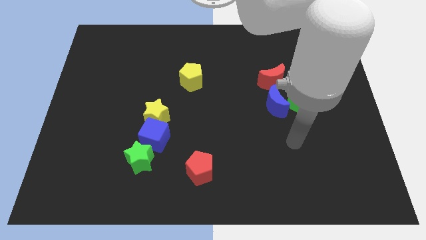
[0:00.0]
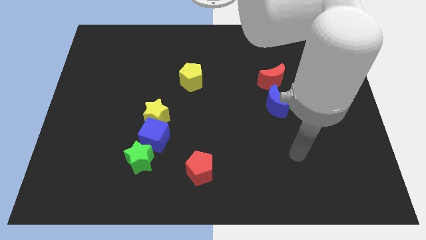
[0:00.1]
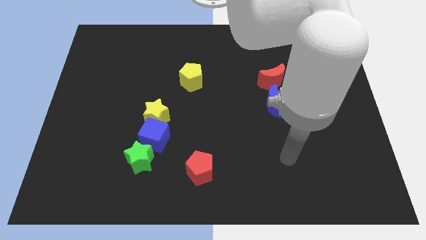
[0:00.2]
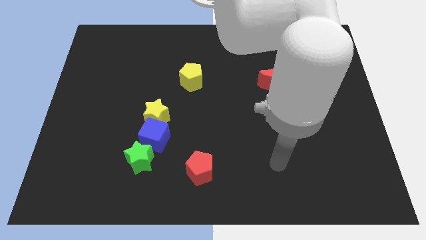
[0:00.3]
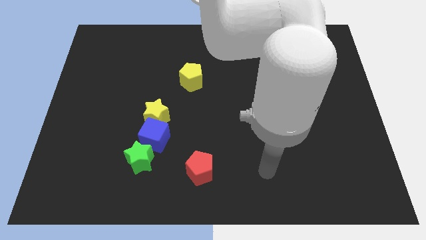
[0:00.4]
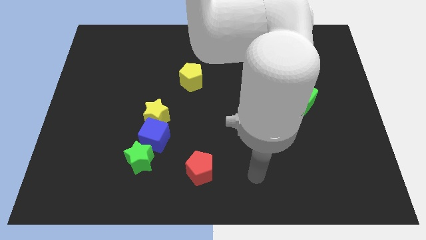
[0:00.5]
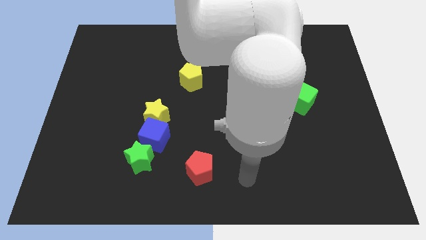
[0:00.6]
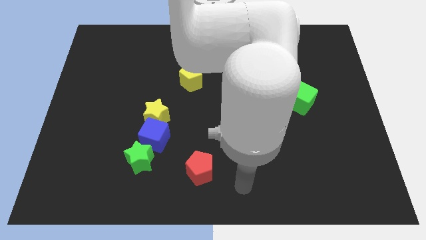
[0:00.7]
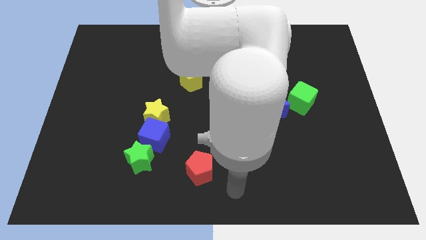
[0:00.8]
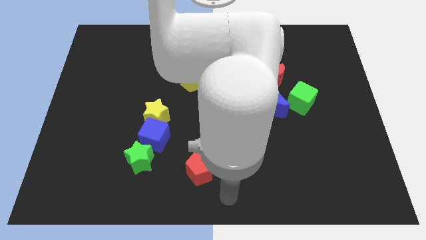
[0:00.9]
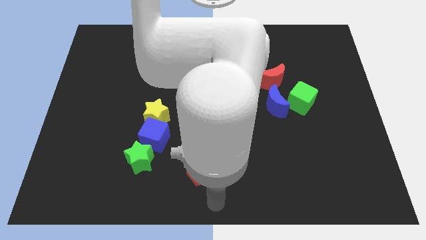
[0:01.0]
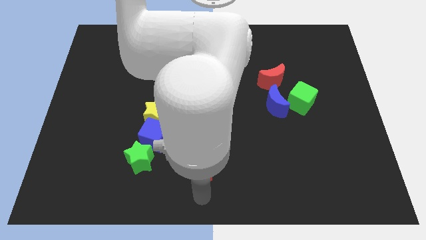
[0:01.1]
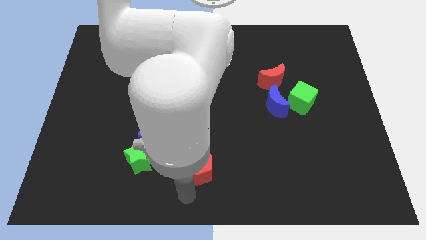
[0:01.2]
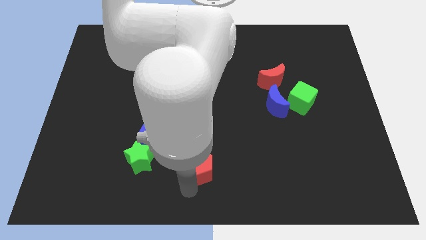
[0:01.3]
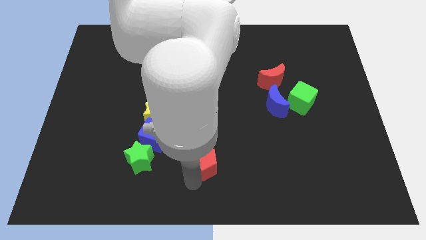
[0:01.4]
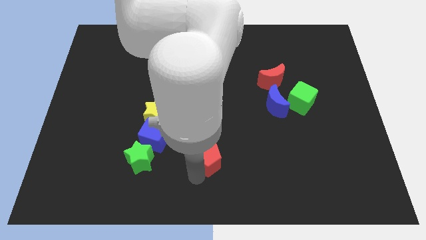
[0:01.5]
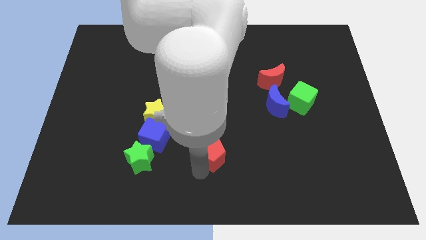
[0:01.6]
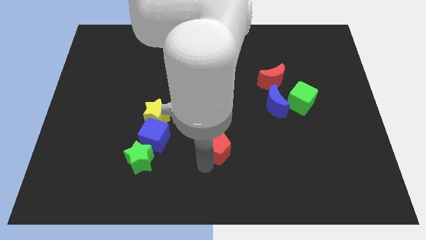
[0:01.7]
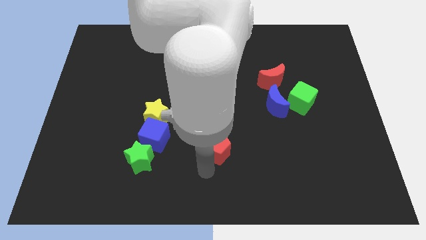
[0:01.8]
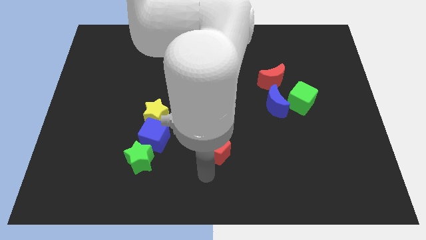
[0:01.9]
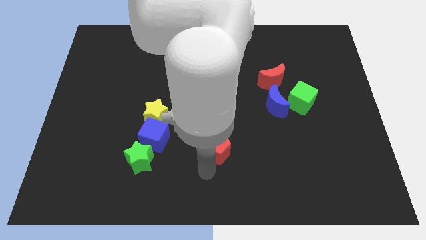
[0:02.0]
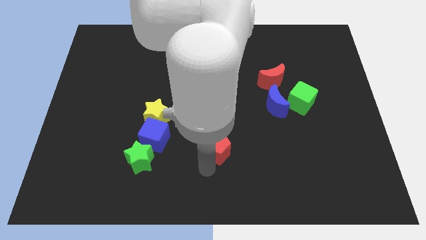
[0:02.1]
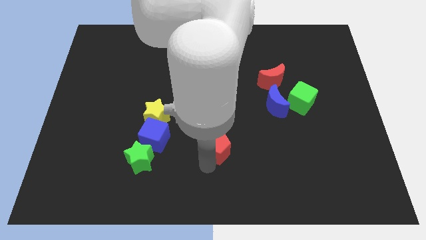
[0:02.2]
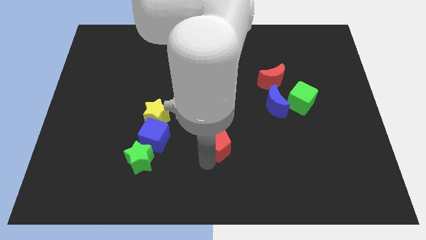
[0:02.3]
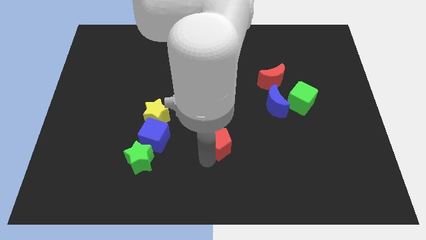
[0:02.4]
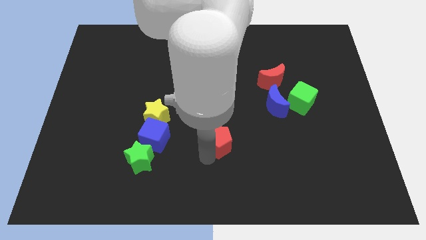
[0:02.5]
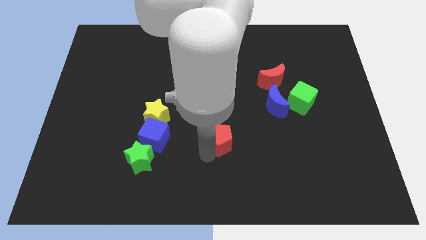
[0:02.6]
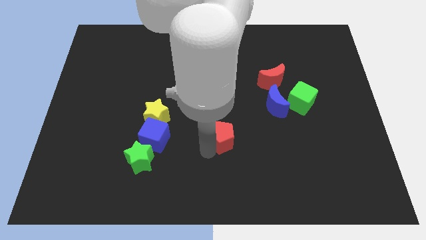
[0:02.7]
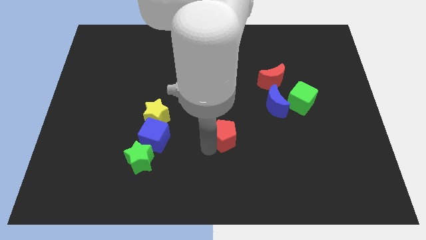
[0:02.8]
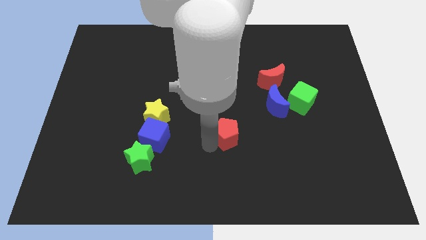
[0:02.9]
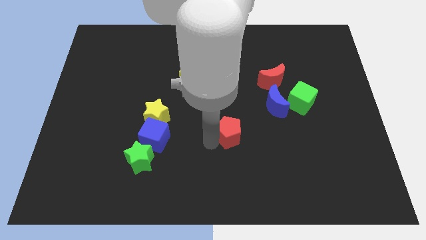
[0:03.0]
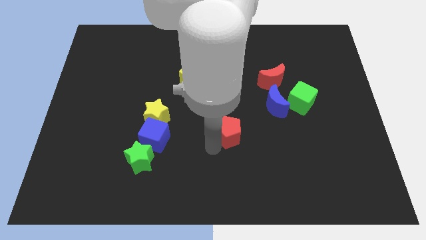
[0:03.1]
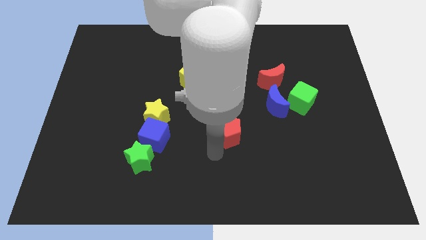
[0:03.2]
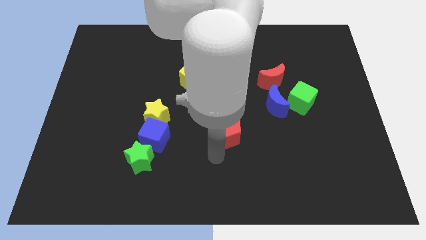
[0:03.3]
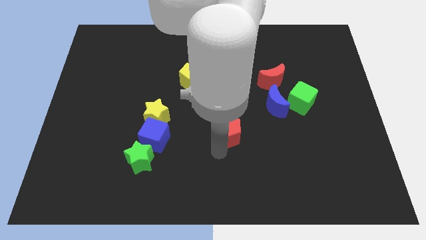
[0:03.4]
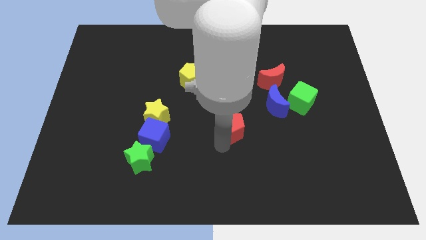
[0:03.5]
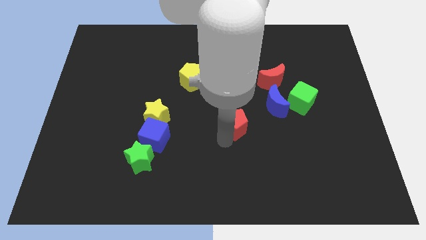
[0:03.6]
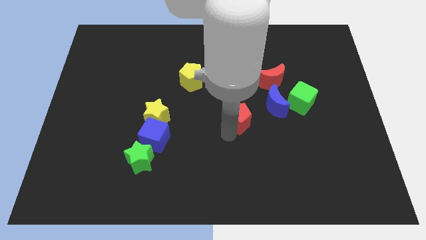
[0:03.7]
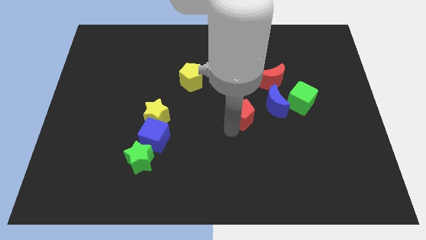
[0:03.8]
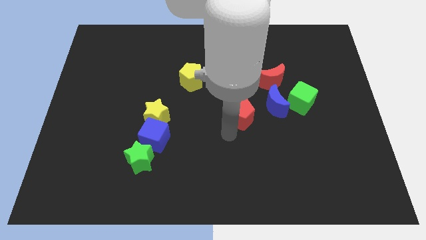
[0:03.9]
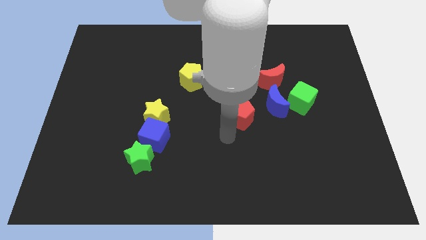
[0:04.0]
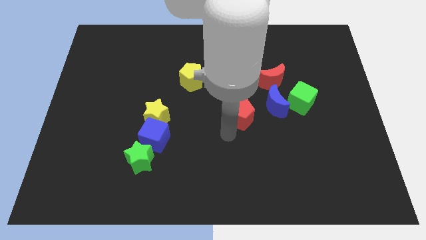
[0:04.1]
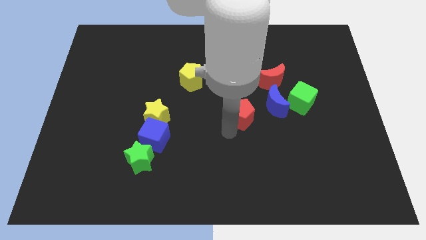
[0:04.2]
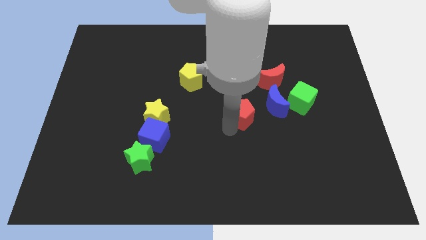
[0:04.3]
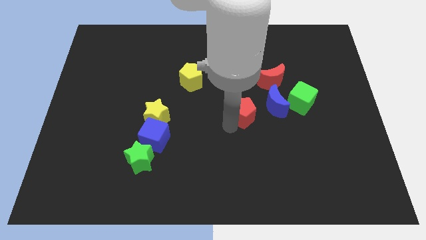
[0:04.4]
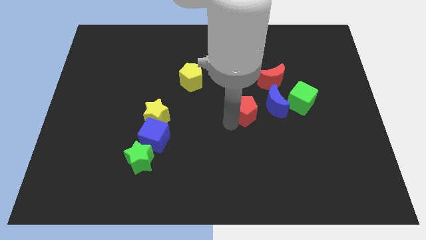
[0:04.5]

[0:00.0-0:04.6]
push the red pentagon diagonally down and to the left of the red moon

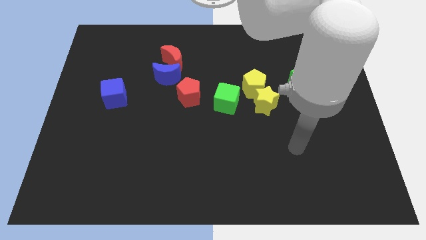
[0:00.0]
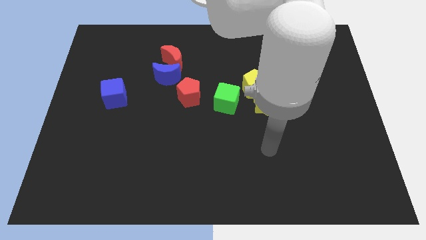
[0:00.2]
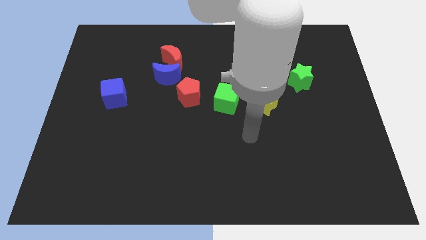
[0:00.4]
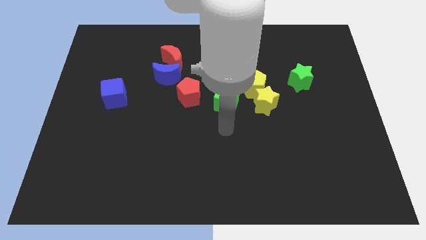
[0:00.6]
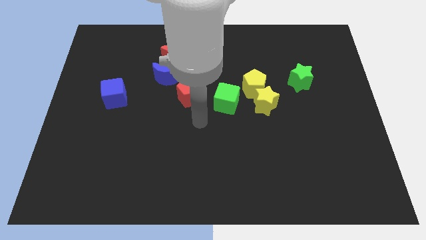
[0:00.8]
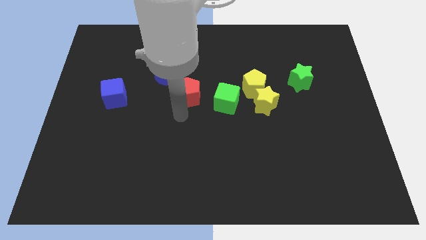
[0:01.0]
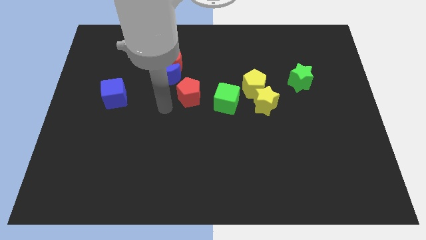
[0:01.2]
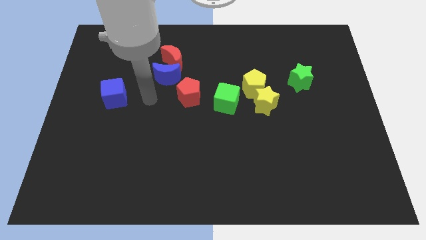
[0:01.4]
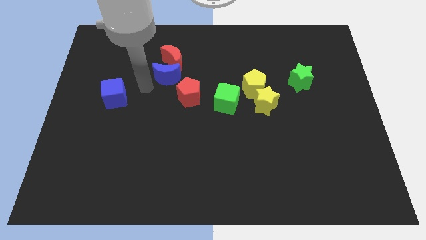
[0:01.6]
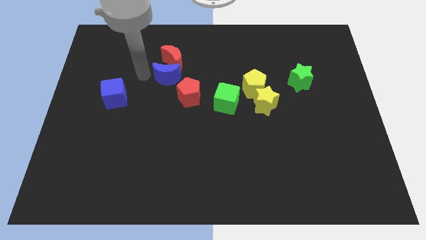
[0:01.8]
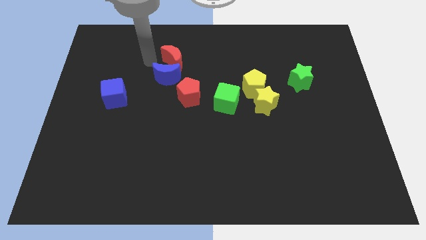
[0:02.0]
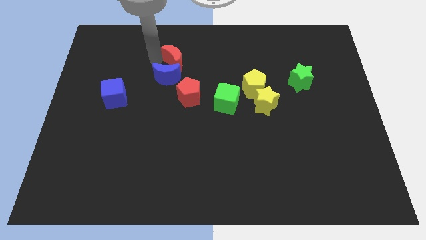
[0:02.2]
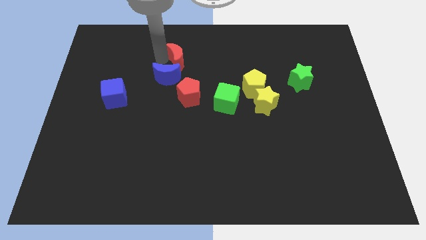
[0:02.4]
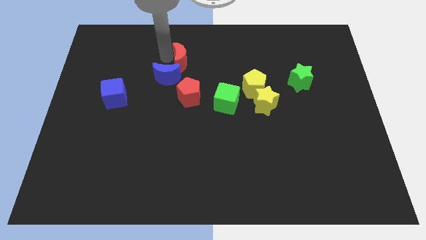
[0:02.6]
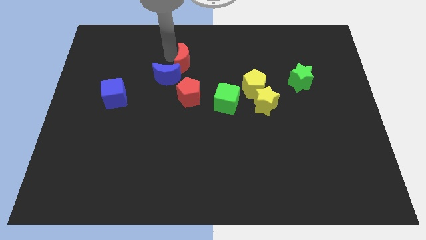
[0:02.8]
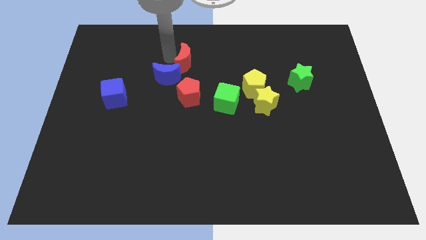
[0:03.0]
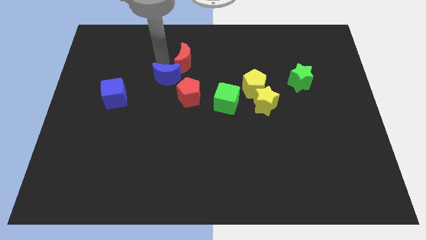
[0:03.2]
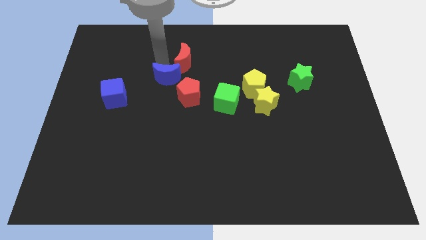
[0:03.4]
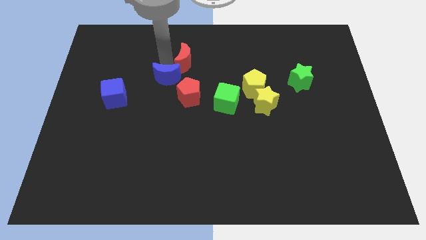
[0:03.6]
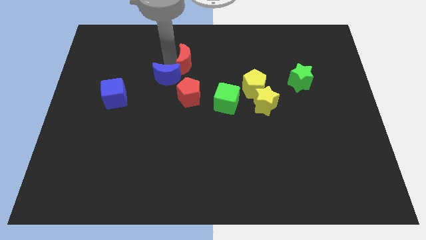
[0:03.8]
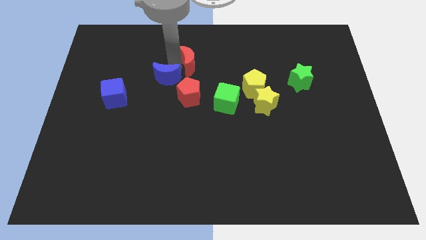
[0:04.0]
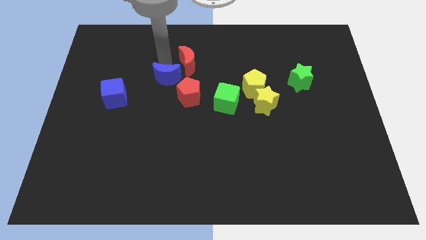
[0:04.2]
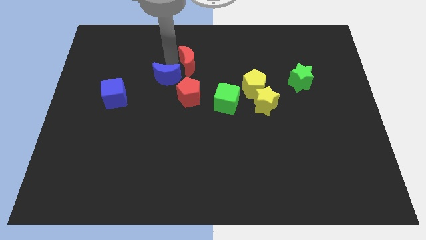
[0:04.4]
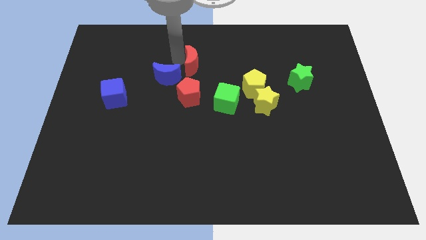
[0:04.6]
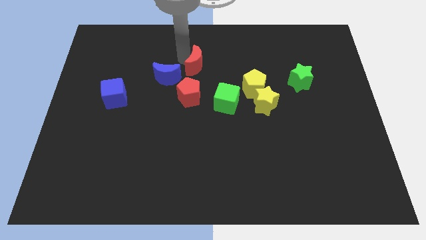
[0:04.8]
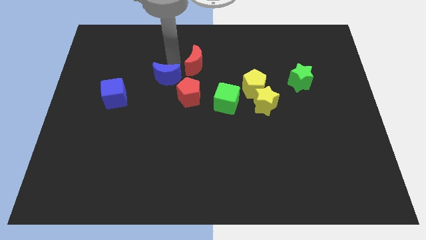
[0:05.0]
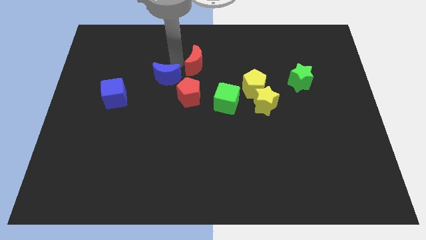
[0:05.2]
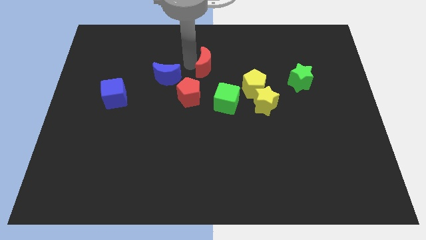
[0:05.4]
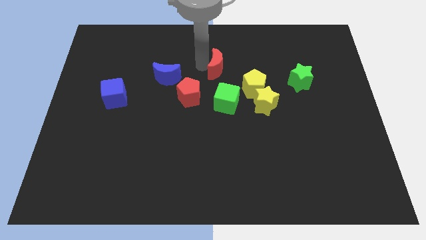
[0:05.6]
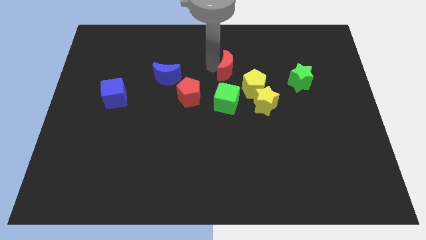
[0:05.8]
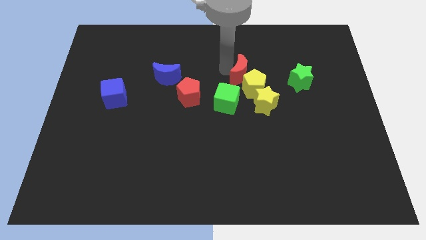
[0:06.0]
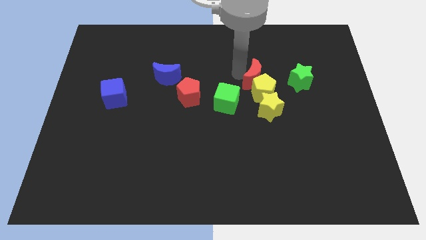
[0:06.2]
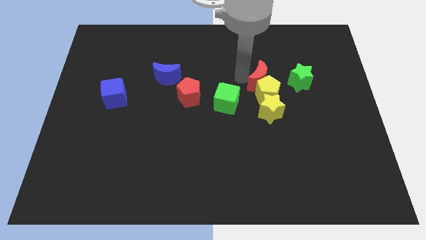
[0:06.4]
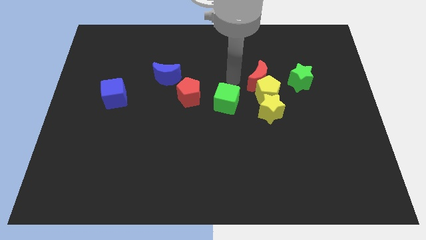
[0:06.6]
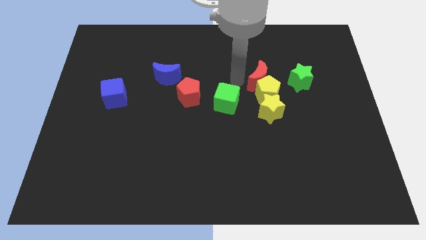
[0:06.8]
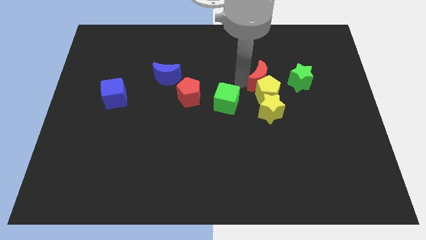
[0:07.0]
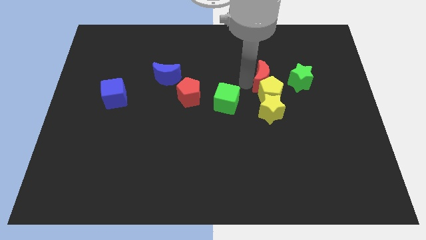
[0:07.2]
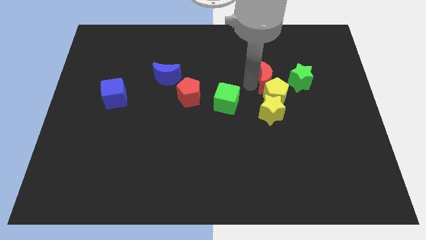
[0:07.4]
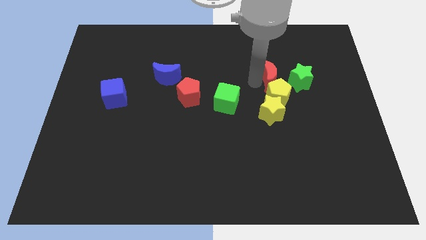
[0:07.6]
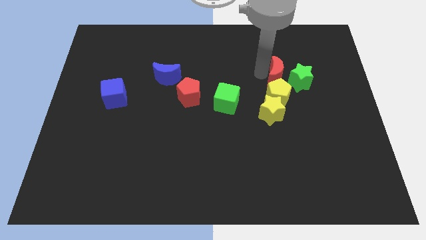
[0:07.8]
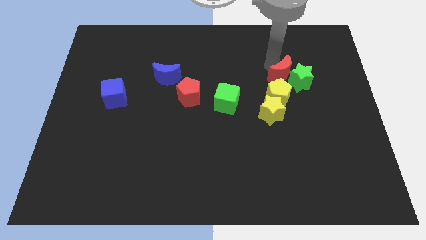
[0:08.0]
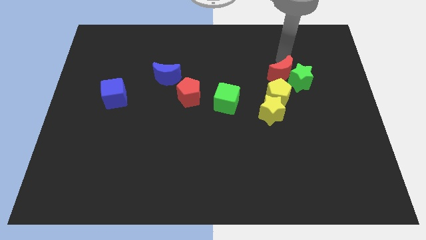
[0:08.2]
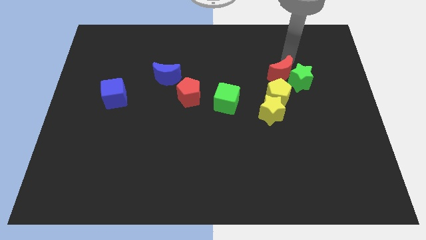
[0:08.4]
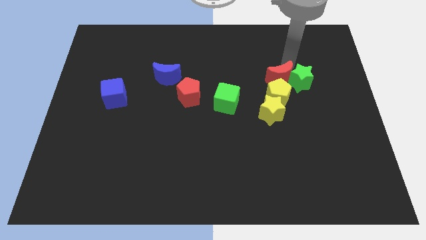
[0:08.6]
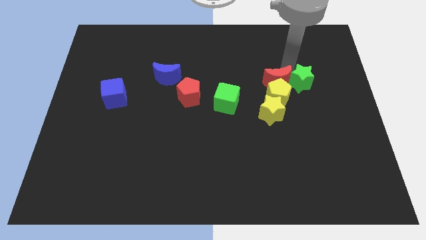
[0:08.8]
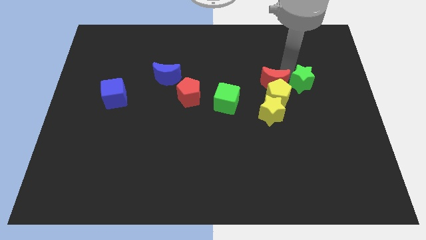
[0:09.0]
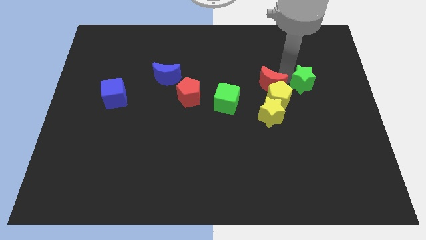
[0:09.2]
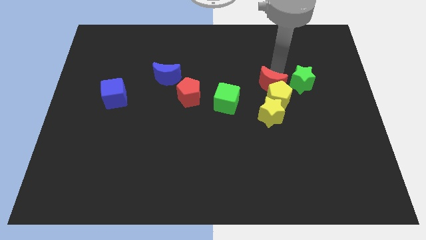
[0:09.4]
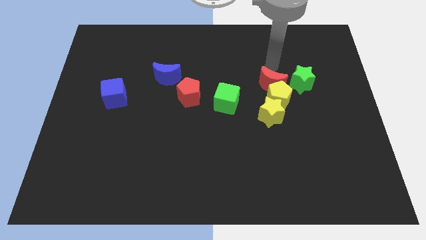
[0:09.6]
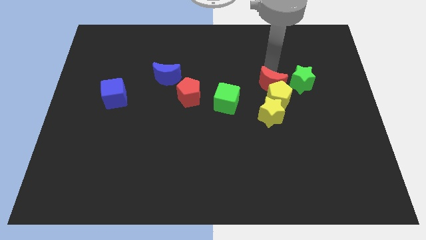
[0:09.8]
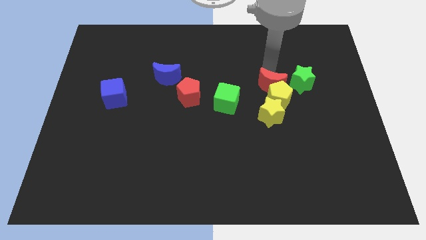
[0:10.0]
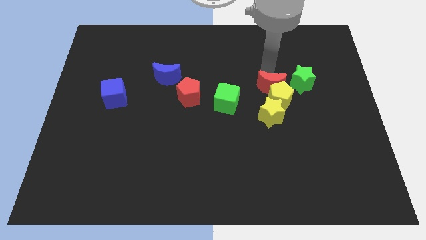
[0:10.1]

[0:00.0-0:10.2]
put the red moon right of the green cube
